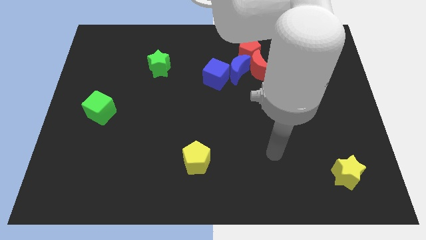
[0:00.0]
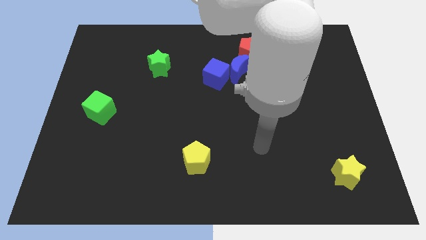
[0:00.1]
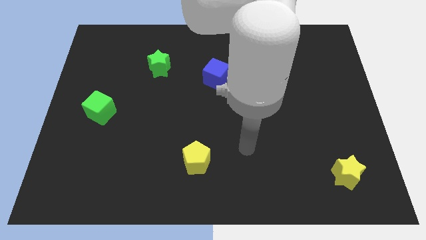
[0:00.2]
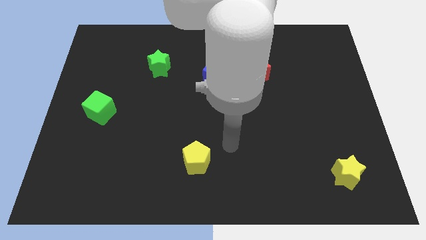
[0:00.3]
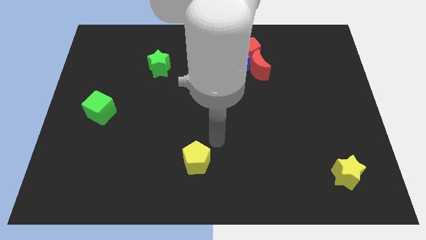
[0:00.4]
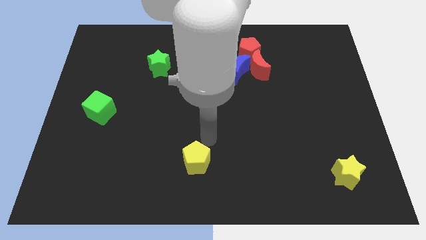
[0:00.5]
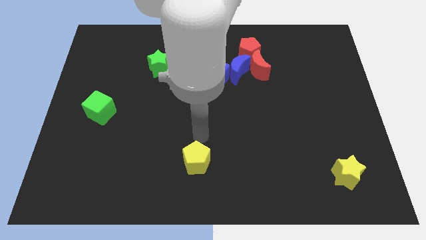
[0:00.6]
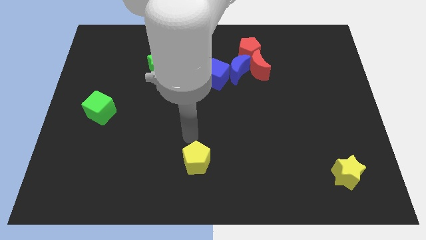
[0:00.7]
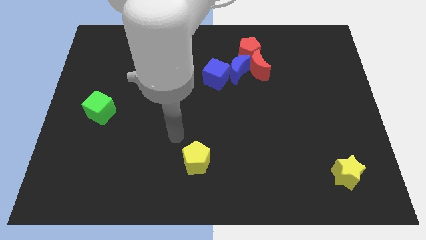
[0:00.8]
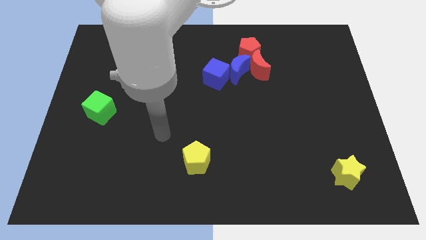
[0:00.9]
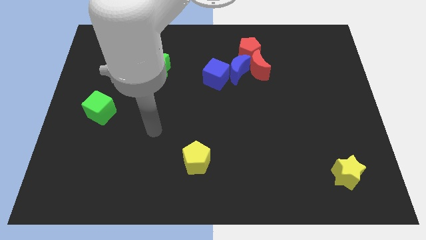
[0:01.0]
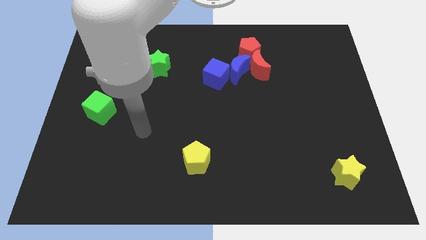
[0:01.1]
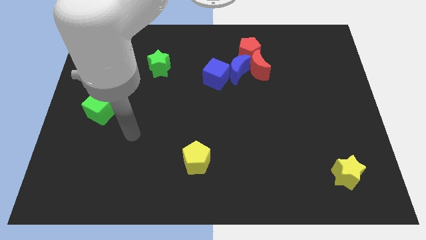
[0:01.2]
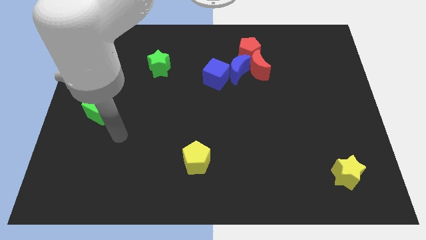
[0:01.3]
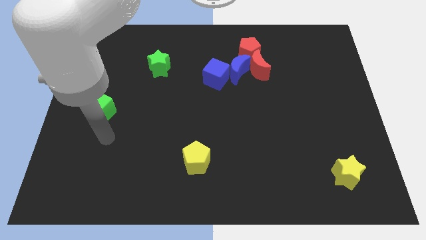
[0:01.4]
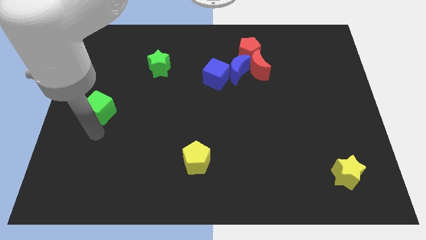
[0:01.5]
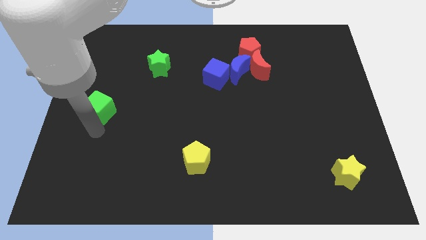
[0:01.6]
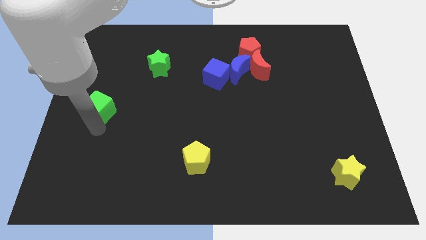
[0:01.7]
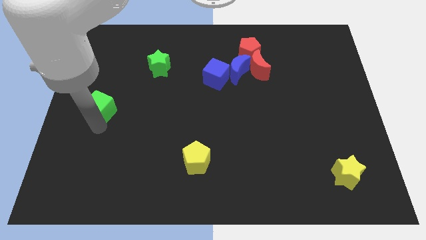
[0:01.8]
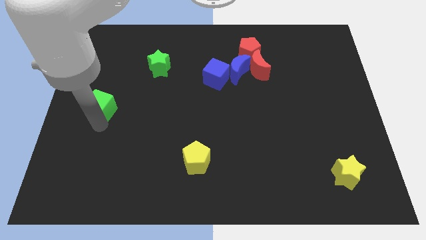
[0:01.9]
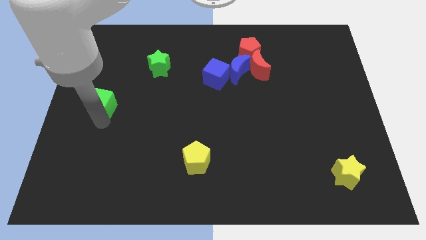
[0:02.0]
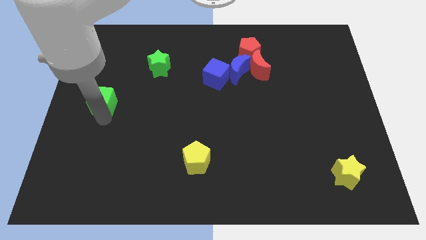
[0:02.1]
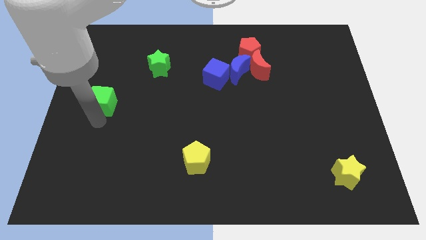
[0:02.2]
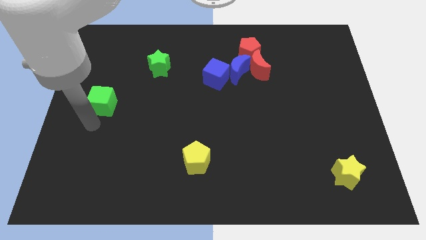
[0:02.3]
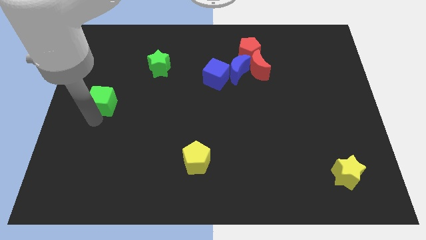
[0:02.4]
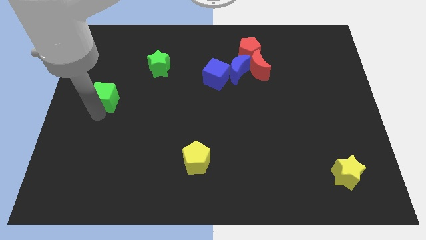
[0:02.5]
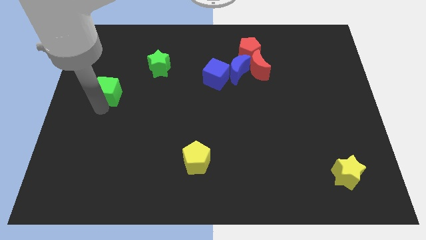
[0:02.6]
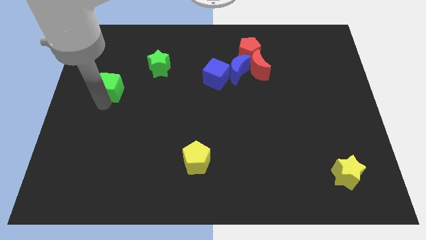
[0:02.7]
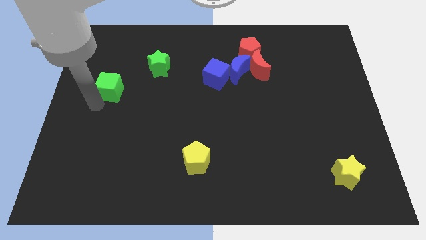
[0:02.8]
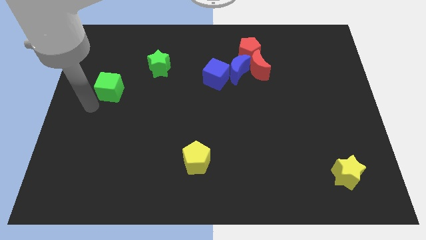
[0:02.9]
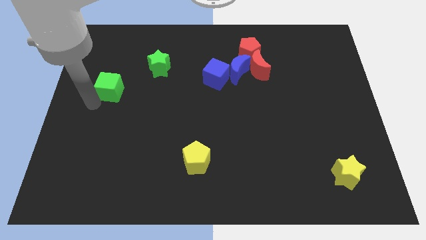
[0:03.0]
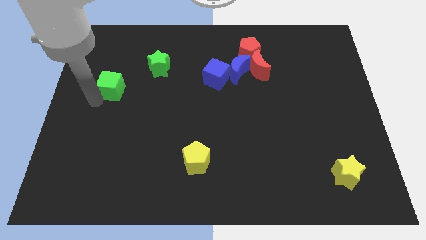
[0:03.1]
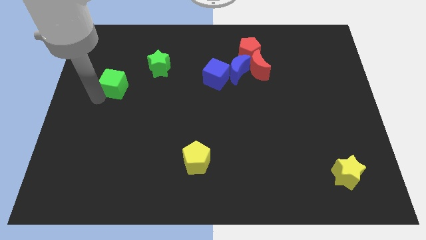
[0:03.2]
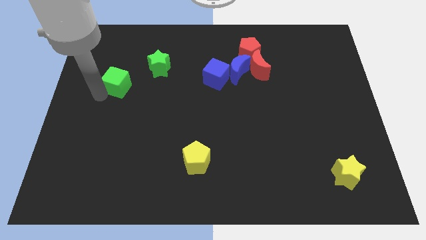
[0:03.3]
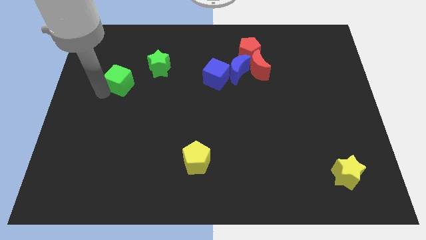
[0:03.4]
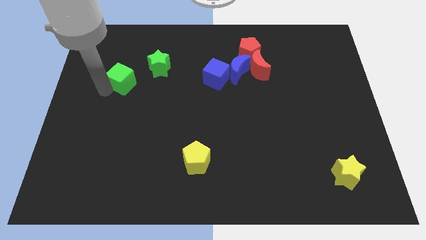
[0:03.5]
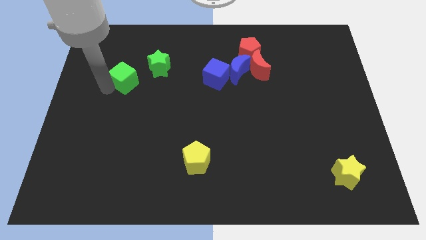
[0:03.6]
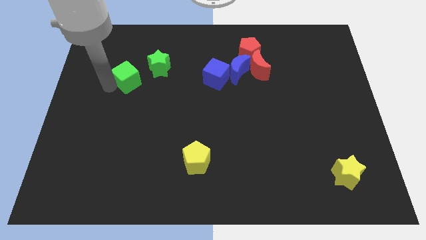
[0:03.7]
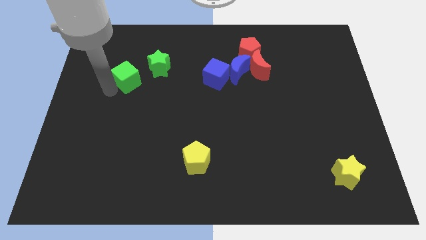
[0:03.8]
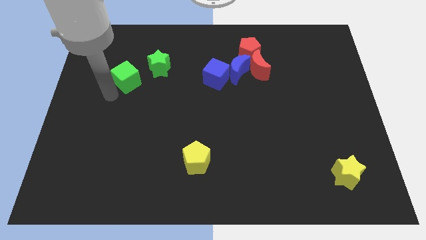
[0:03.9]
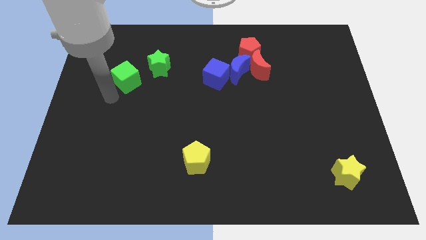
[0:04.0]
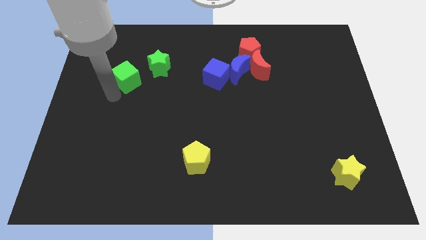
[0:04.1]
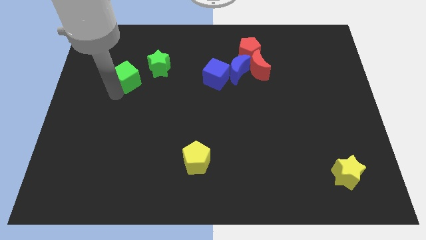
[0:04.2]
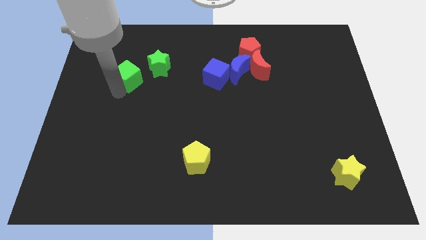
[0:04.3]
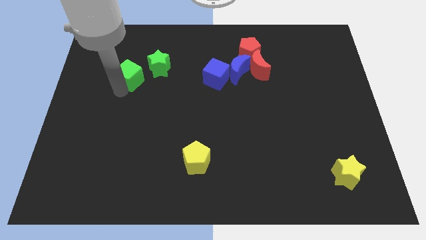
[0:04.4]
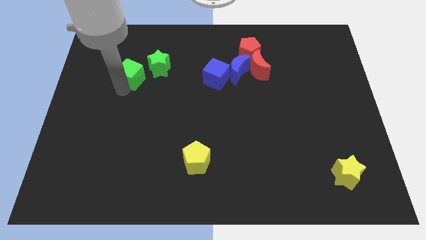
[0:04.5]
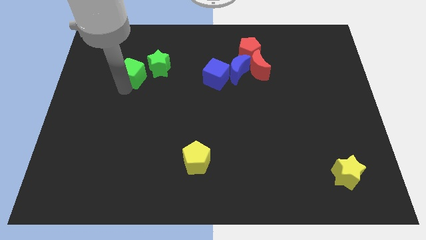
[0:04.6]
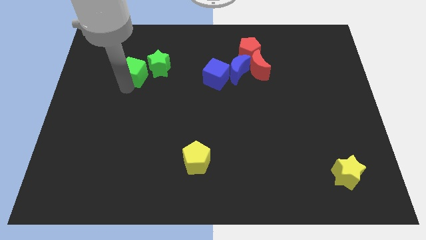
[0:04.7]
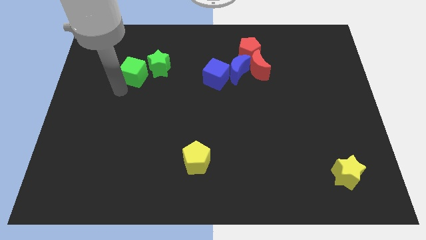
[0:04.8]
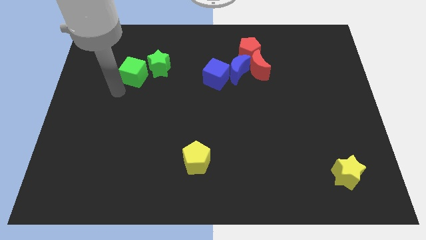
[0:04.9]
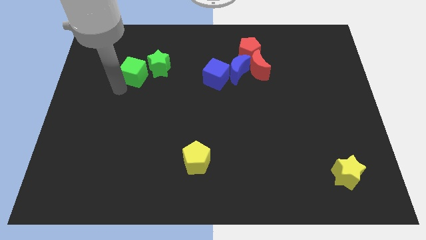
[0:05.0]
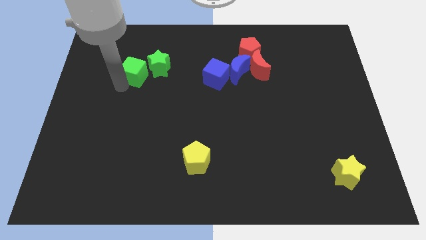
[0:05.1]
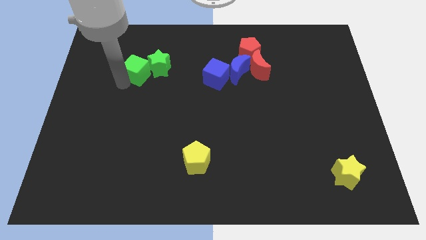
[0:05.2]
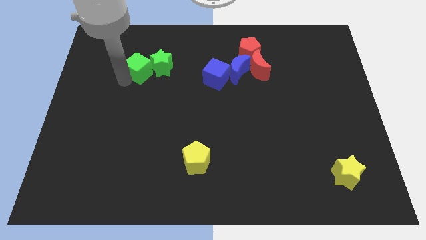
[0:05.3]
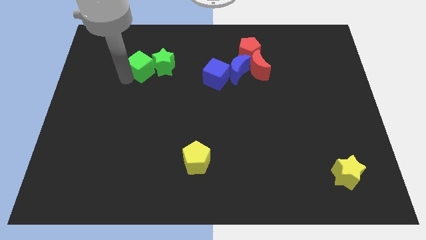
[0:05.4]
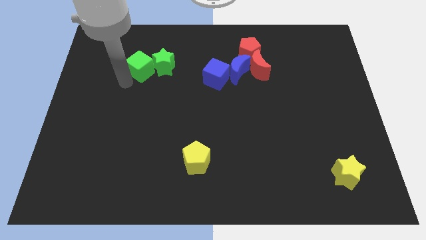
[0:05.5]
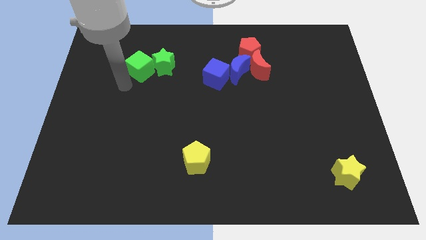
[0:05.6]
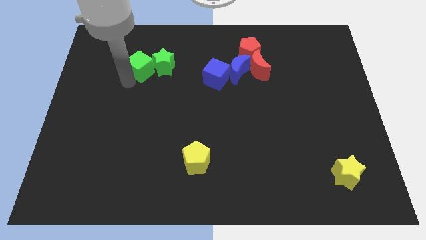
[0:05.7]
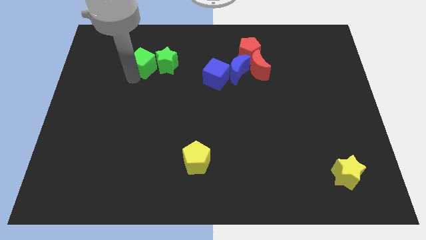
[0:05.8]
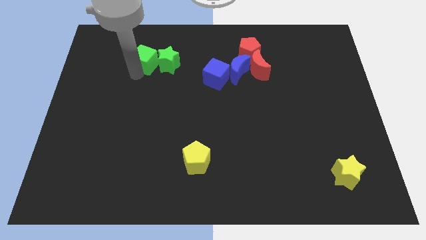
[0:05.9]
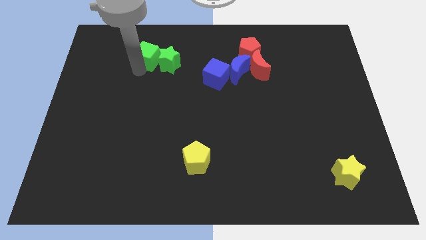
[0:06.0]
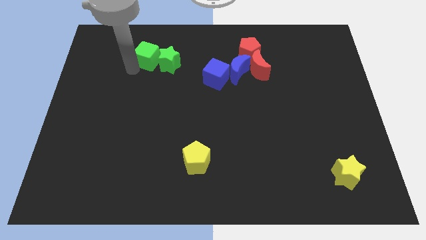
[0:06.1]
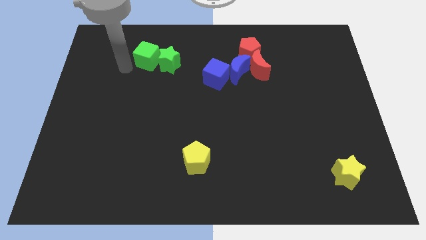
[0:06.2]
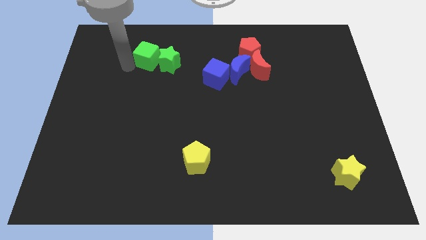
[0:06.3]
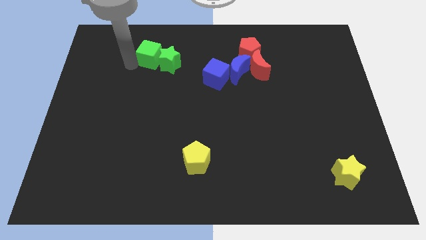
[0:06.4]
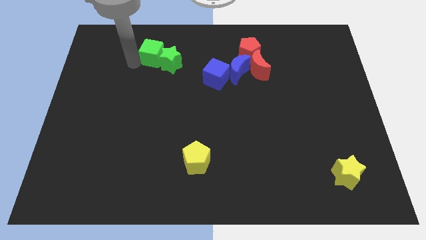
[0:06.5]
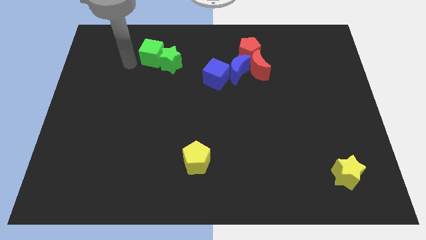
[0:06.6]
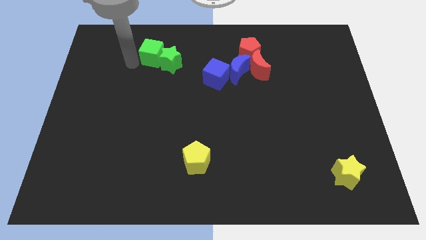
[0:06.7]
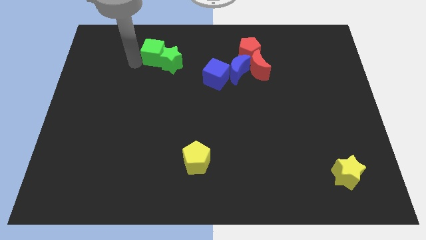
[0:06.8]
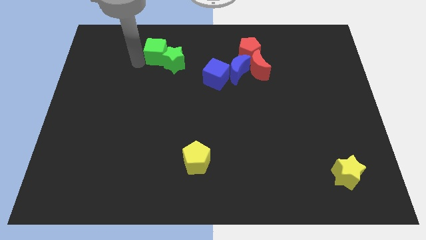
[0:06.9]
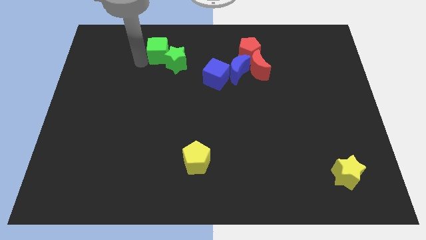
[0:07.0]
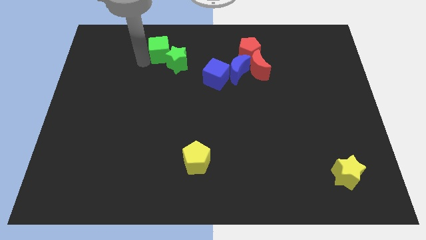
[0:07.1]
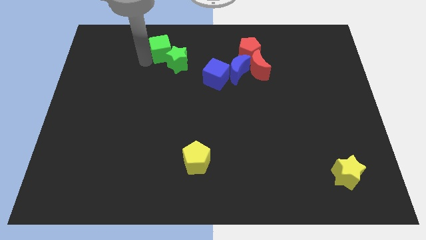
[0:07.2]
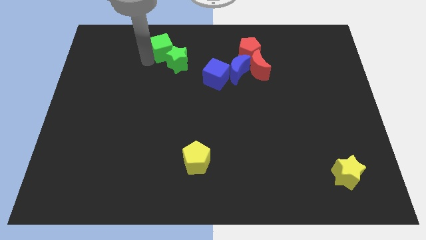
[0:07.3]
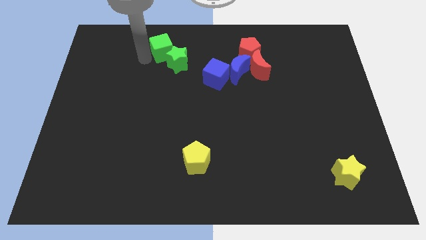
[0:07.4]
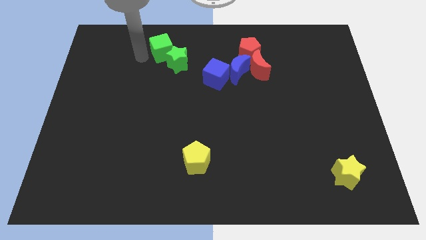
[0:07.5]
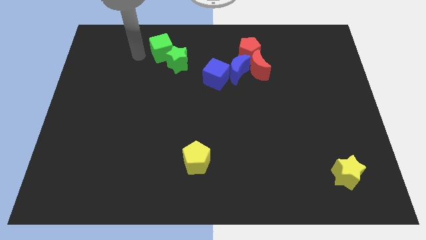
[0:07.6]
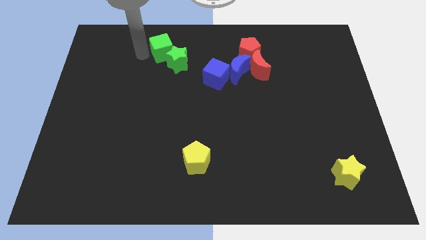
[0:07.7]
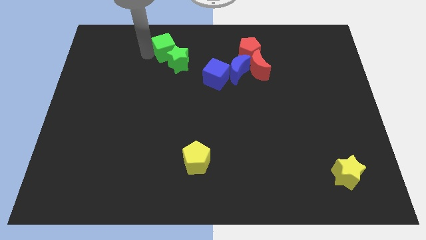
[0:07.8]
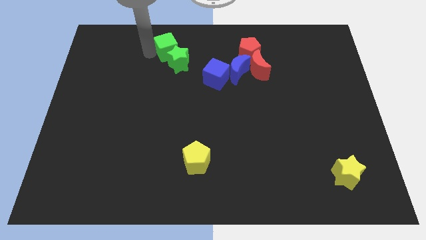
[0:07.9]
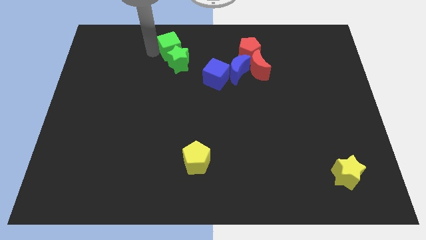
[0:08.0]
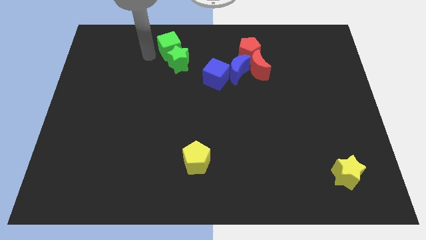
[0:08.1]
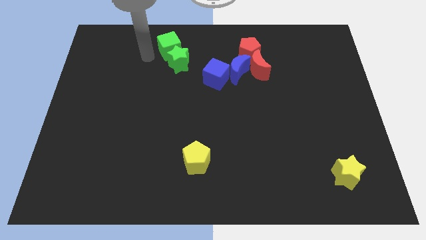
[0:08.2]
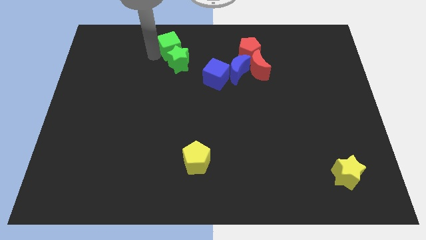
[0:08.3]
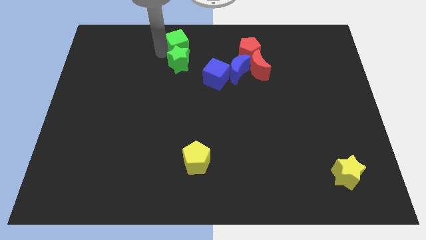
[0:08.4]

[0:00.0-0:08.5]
put the green cube to the top side

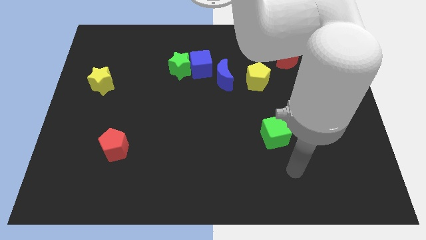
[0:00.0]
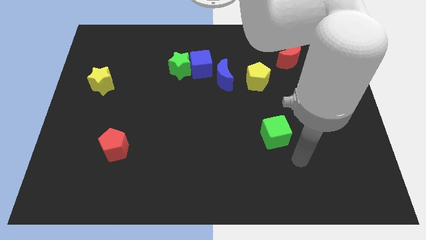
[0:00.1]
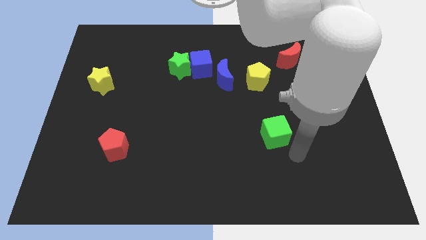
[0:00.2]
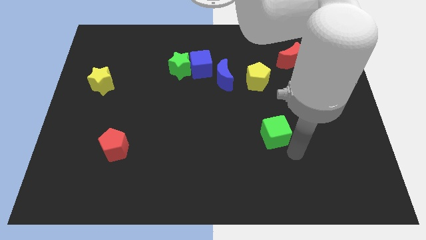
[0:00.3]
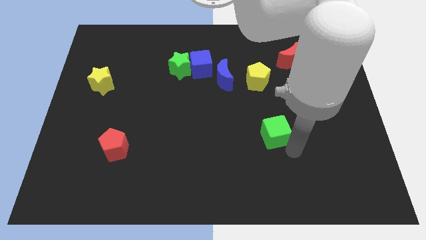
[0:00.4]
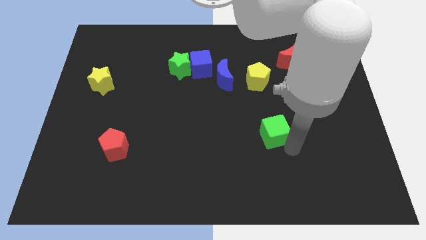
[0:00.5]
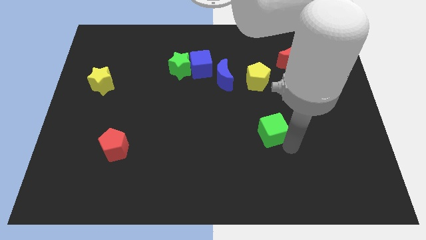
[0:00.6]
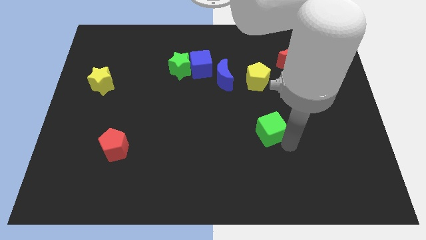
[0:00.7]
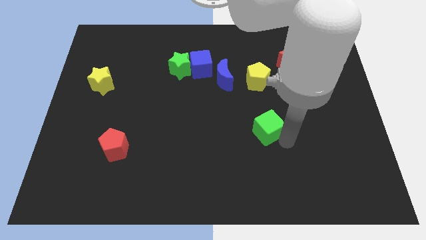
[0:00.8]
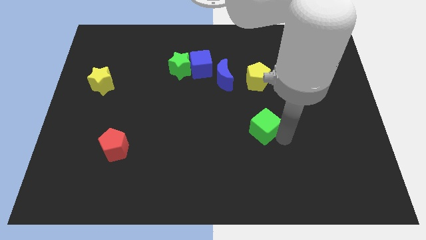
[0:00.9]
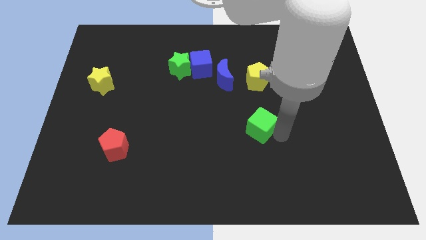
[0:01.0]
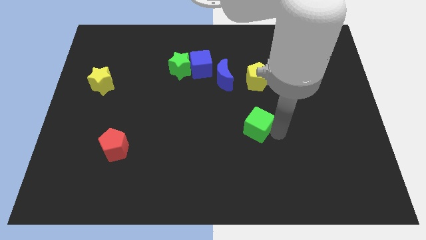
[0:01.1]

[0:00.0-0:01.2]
put the green cube to the center
